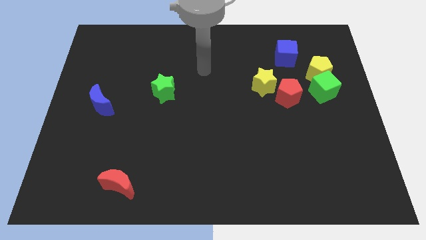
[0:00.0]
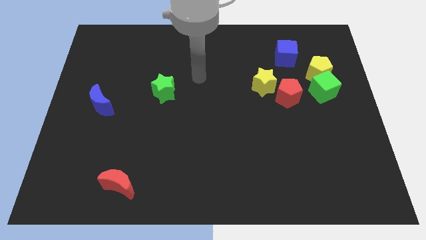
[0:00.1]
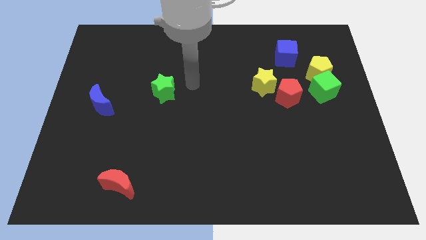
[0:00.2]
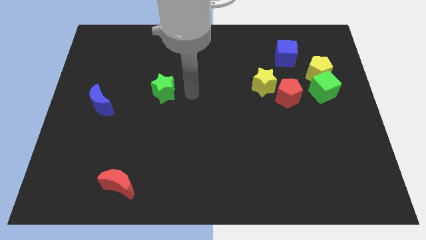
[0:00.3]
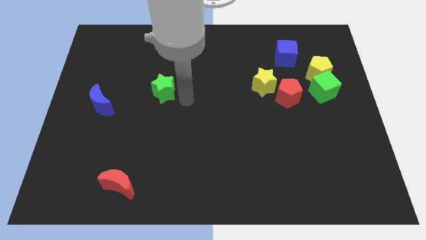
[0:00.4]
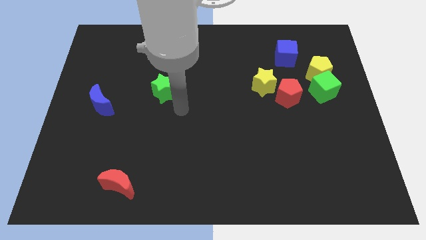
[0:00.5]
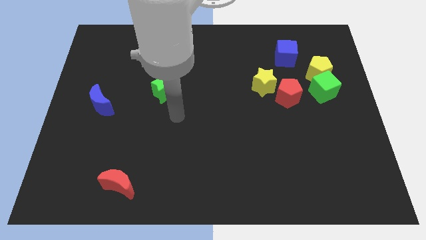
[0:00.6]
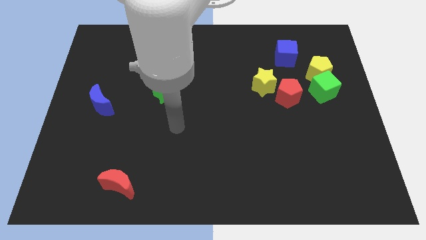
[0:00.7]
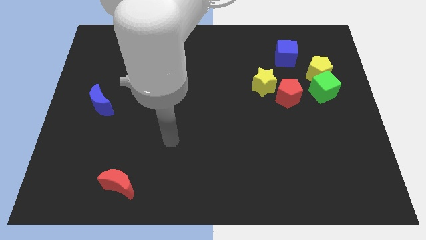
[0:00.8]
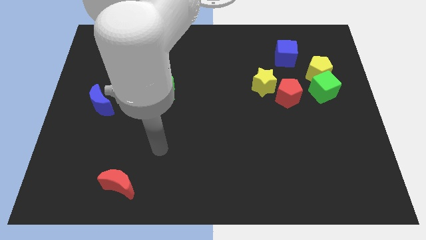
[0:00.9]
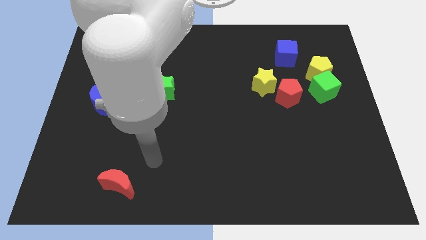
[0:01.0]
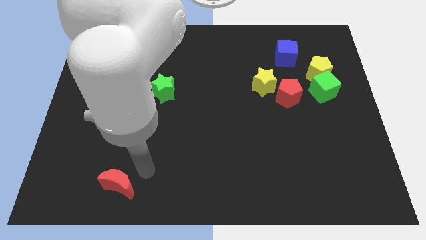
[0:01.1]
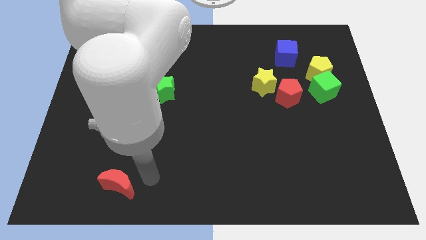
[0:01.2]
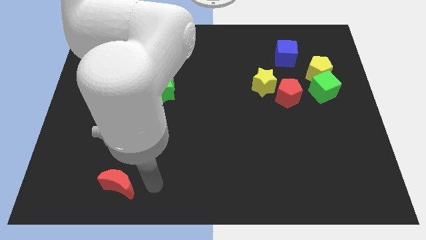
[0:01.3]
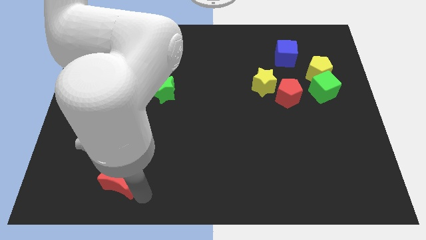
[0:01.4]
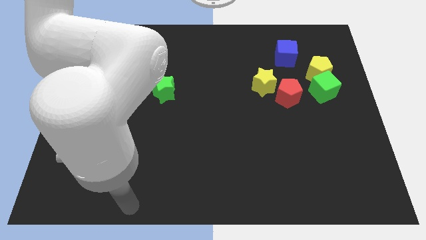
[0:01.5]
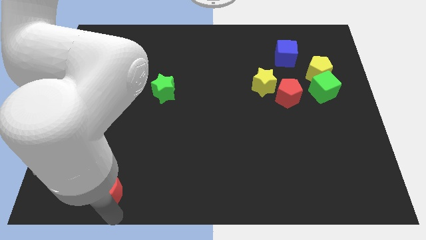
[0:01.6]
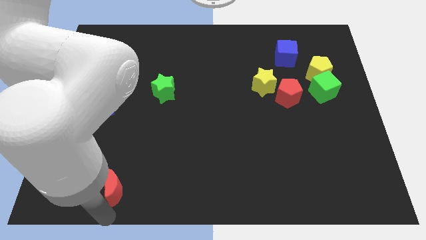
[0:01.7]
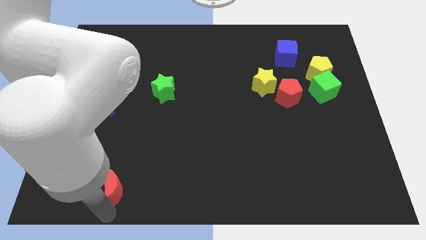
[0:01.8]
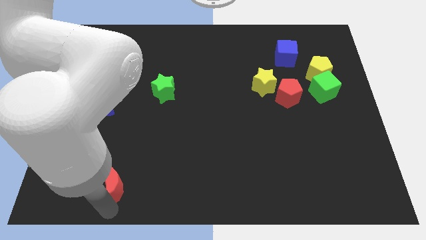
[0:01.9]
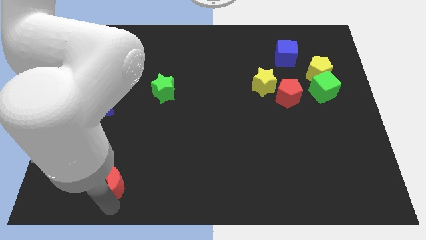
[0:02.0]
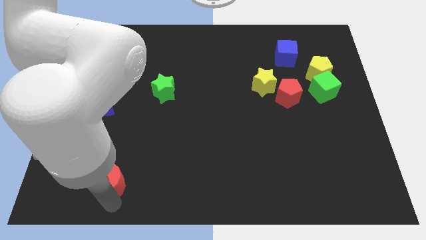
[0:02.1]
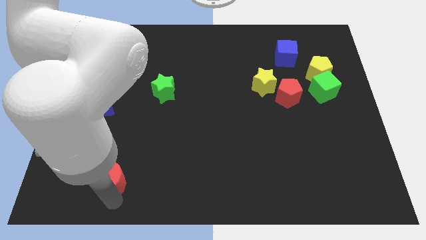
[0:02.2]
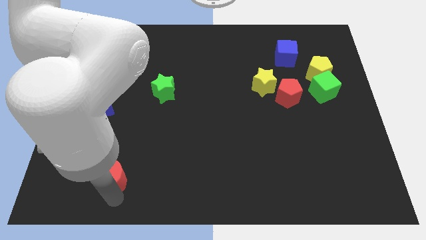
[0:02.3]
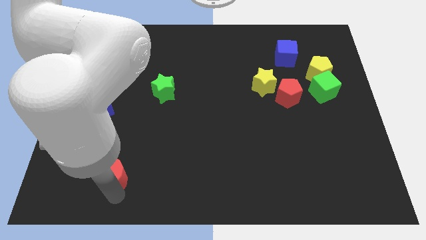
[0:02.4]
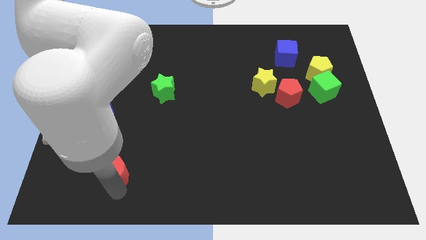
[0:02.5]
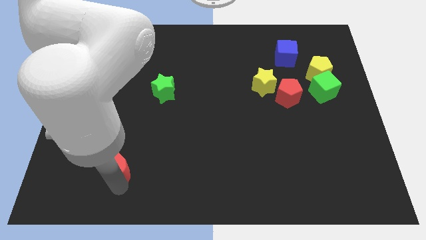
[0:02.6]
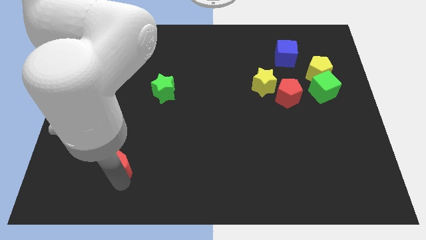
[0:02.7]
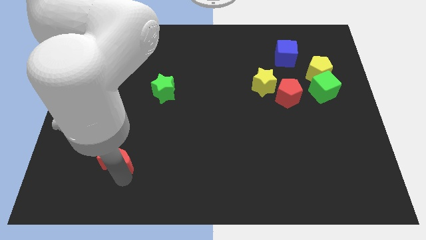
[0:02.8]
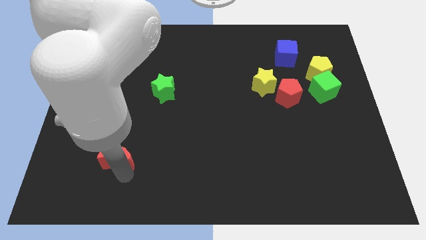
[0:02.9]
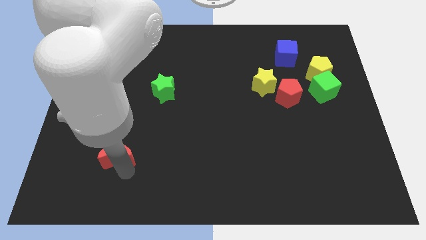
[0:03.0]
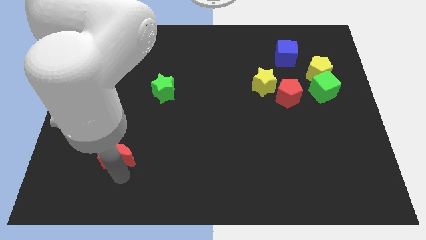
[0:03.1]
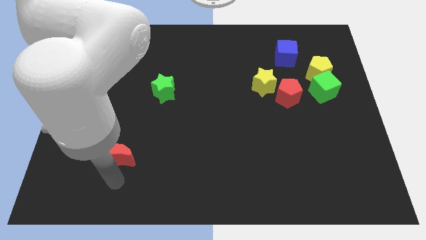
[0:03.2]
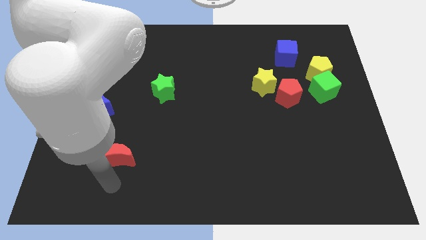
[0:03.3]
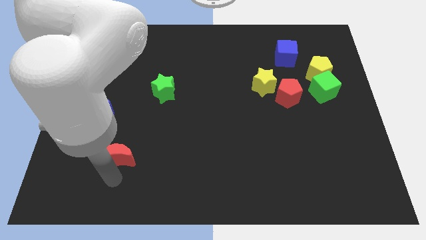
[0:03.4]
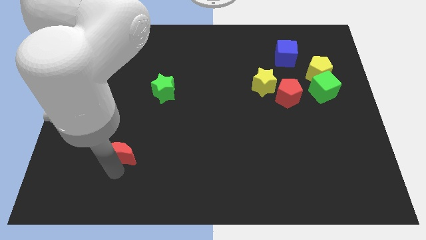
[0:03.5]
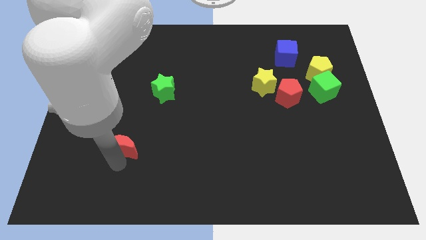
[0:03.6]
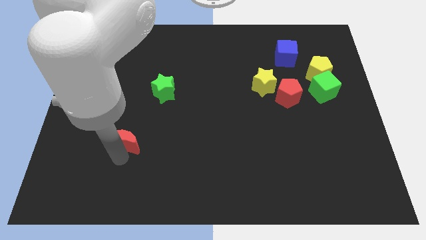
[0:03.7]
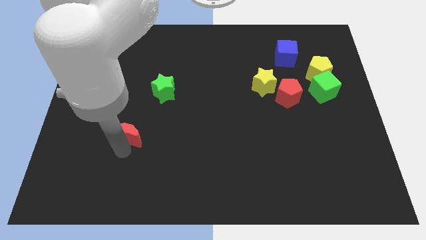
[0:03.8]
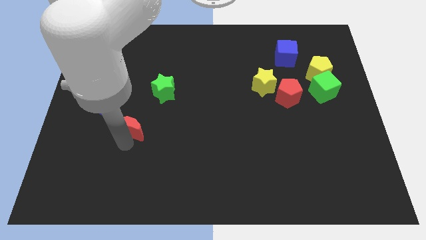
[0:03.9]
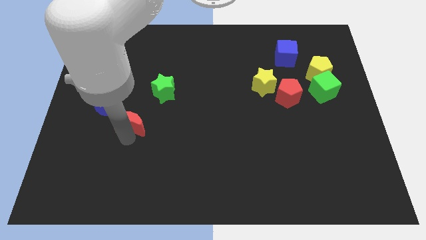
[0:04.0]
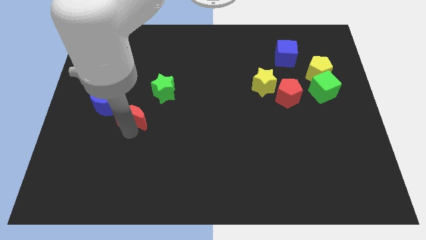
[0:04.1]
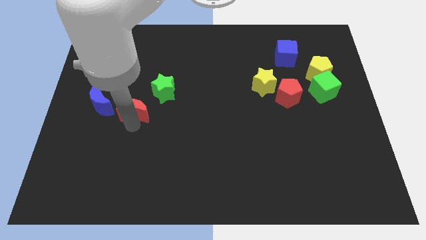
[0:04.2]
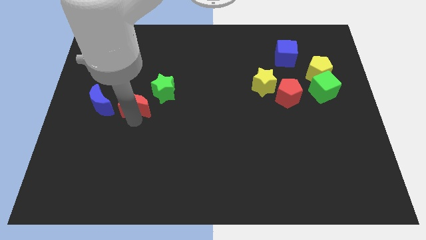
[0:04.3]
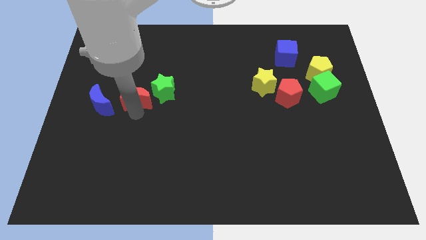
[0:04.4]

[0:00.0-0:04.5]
slide the red moon up

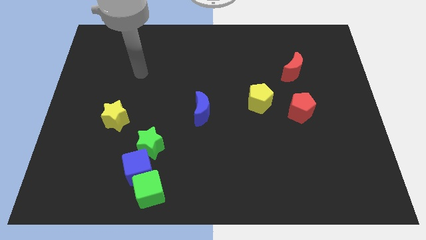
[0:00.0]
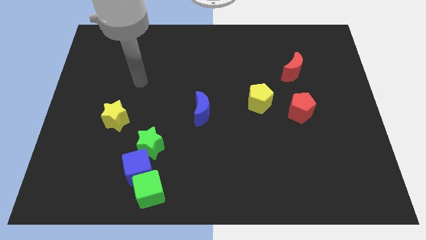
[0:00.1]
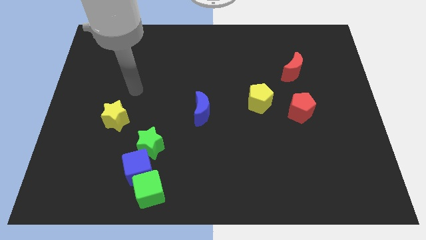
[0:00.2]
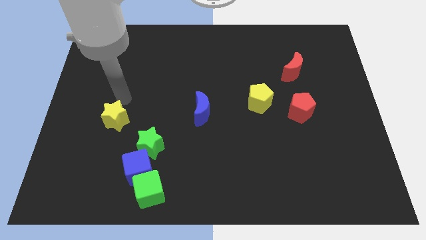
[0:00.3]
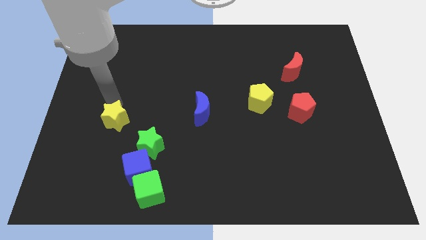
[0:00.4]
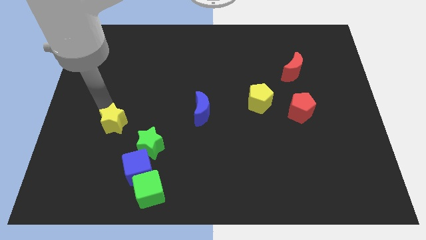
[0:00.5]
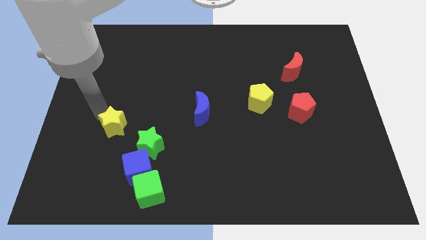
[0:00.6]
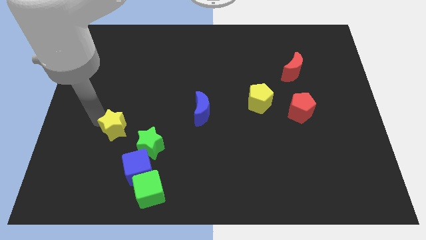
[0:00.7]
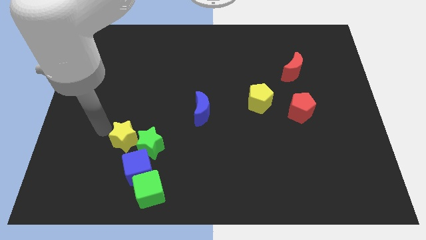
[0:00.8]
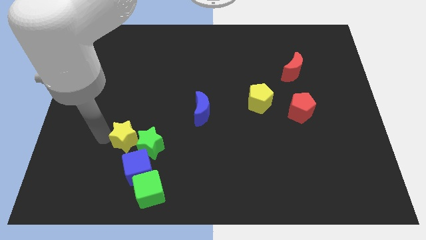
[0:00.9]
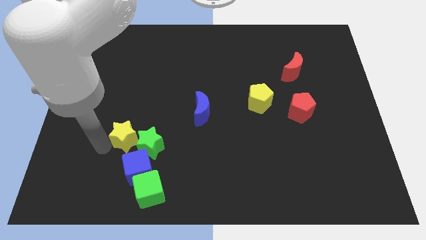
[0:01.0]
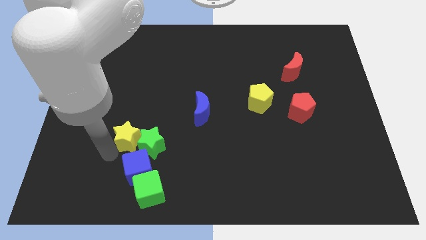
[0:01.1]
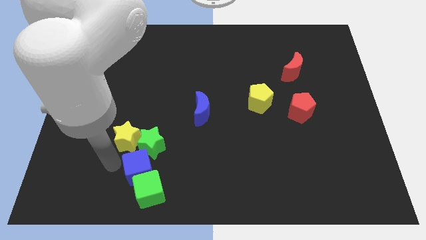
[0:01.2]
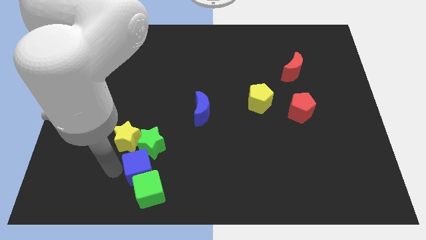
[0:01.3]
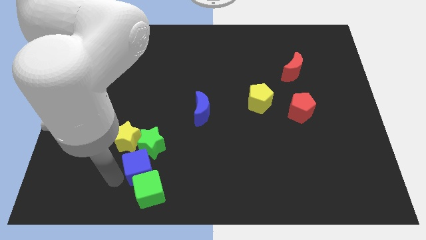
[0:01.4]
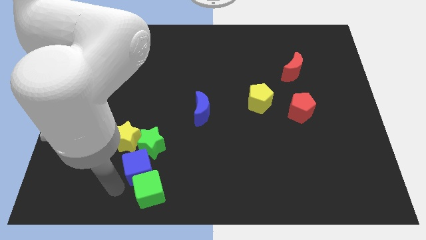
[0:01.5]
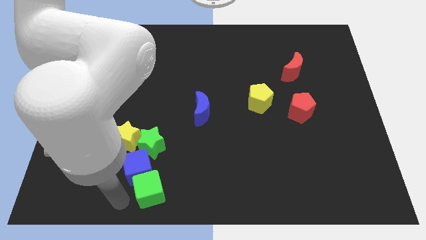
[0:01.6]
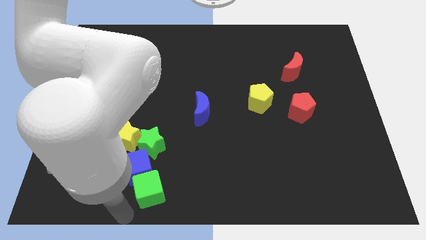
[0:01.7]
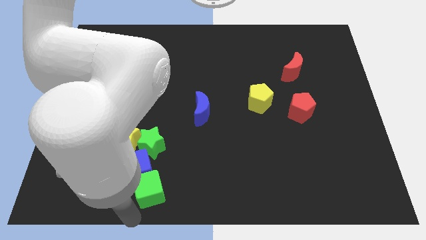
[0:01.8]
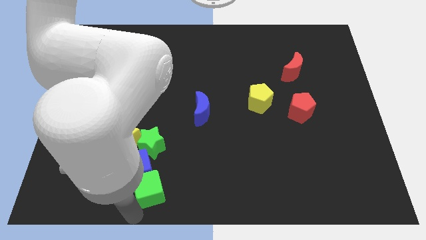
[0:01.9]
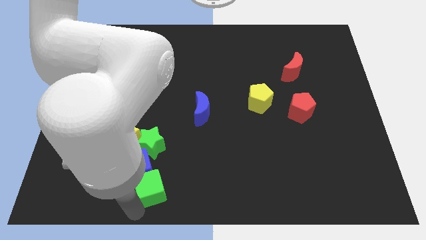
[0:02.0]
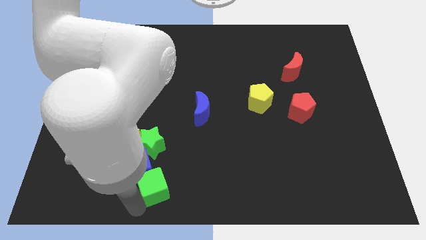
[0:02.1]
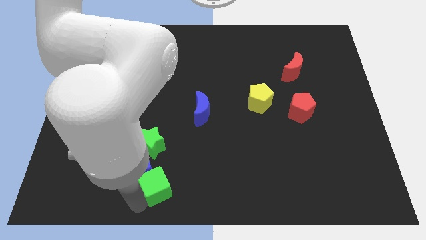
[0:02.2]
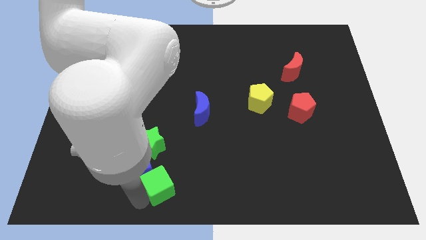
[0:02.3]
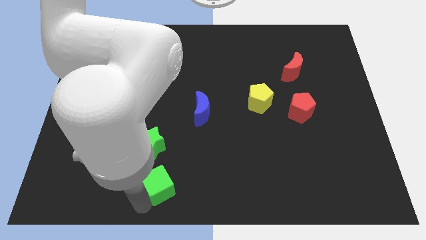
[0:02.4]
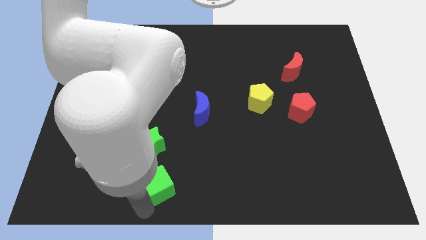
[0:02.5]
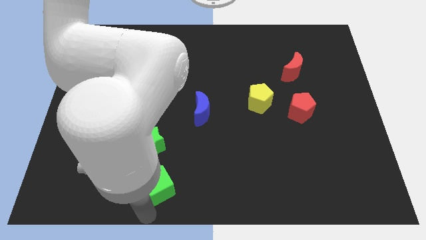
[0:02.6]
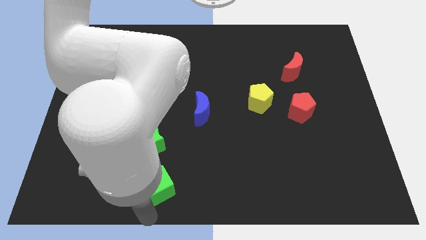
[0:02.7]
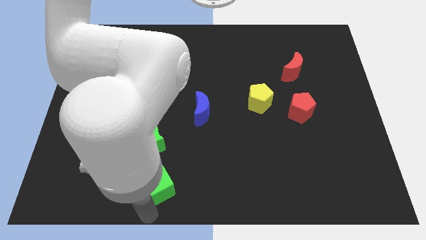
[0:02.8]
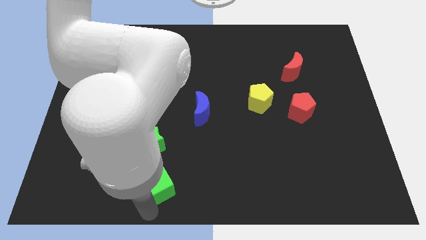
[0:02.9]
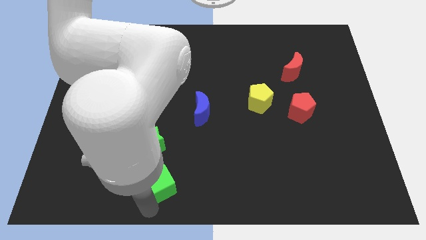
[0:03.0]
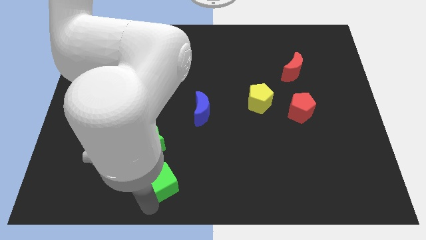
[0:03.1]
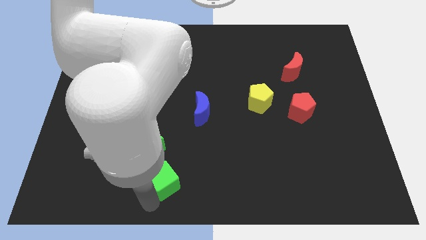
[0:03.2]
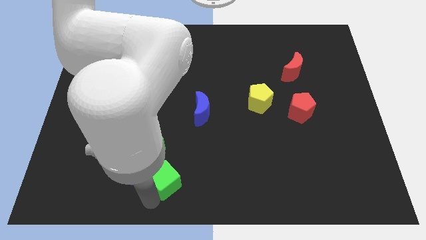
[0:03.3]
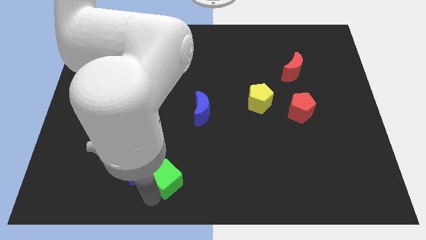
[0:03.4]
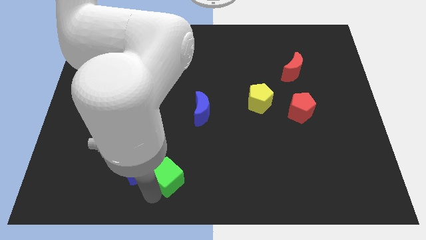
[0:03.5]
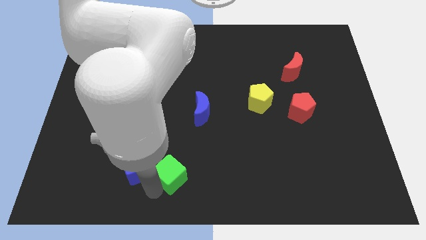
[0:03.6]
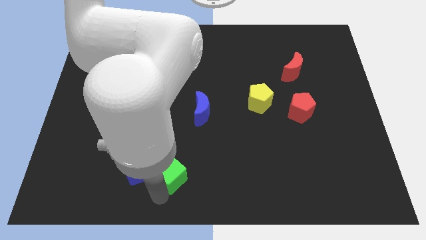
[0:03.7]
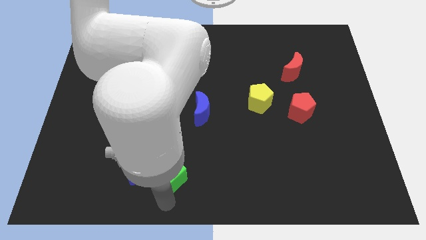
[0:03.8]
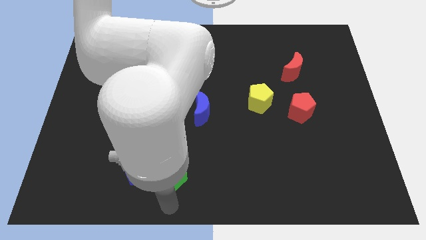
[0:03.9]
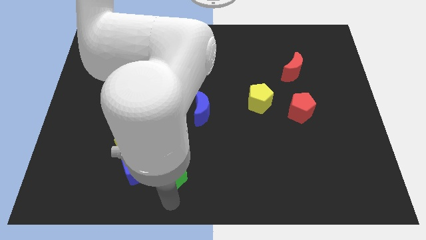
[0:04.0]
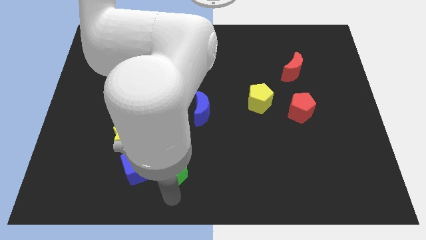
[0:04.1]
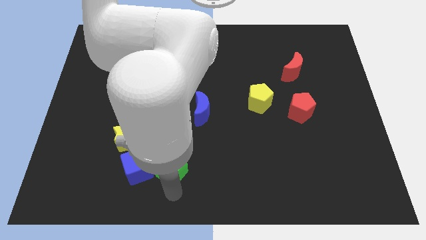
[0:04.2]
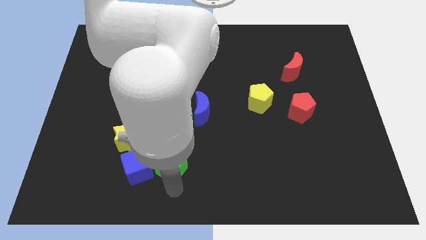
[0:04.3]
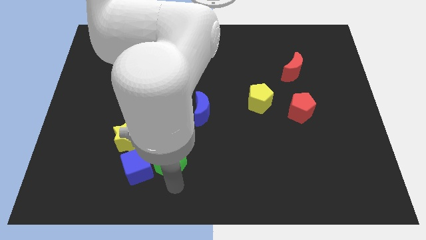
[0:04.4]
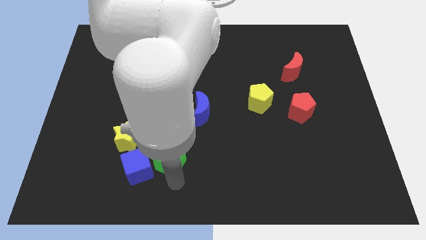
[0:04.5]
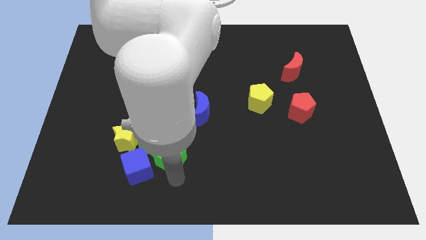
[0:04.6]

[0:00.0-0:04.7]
move the green cube a bit up
